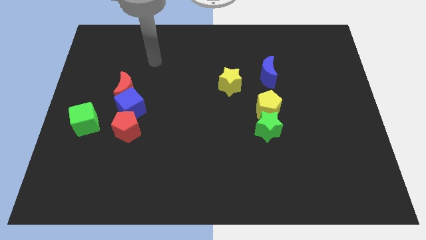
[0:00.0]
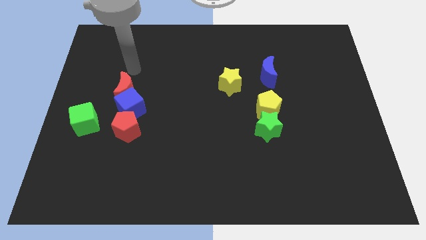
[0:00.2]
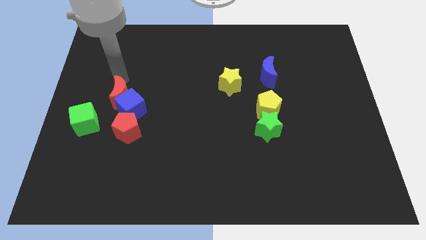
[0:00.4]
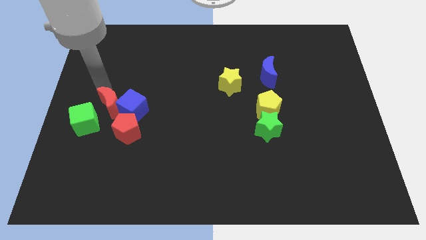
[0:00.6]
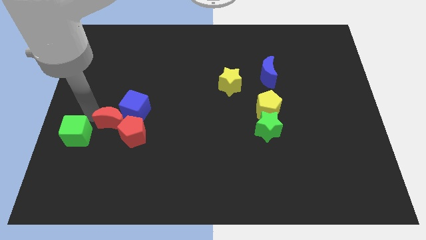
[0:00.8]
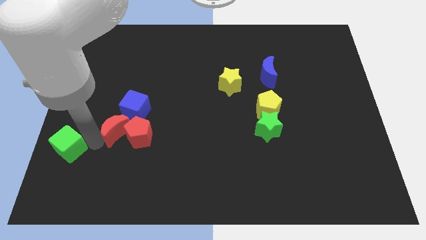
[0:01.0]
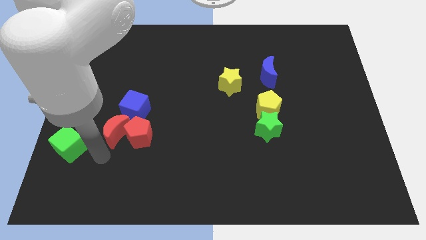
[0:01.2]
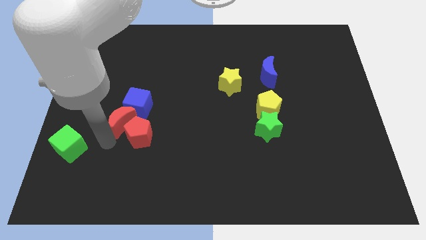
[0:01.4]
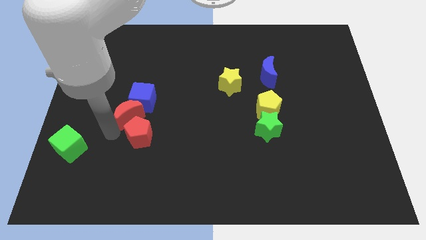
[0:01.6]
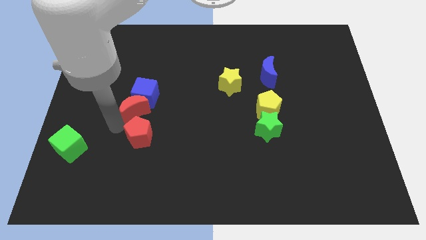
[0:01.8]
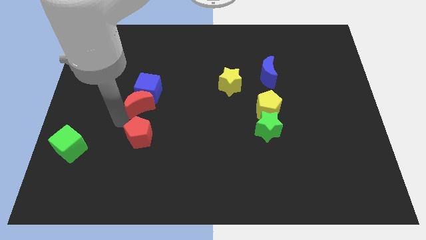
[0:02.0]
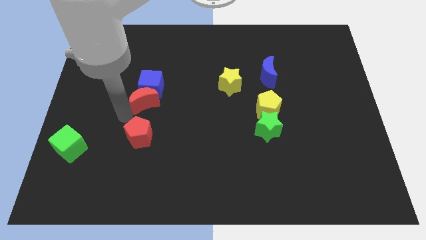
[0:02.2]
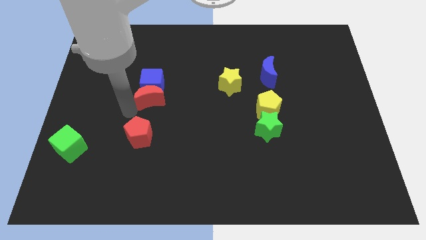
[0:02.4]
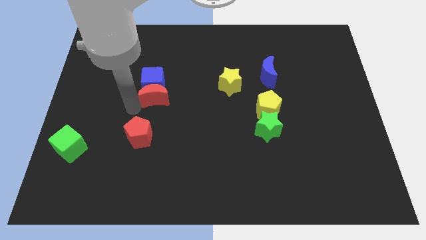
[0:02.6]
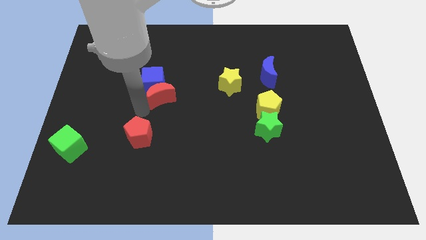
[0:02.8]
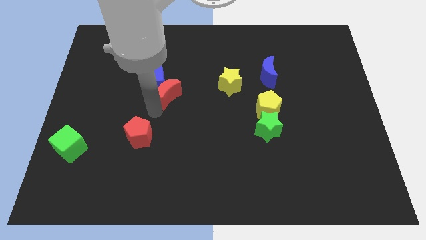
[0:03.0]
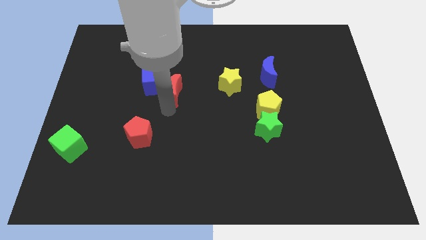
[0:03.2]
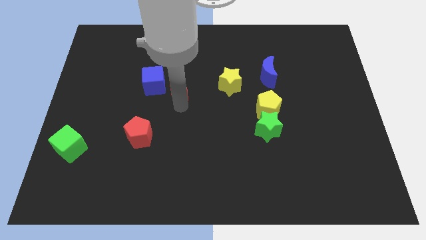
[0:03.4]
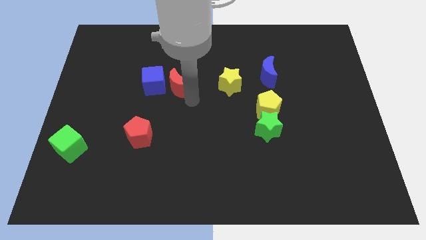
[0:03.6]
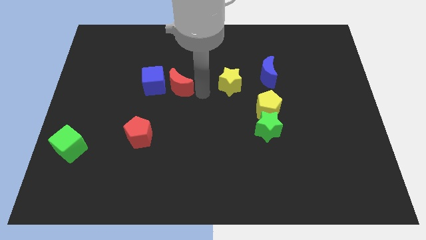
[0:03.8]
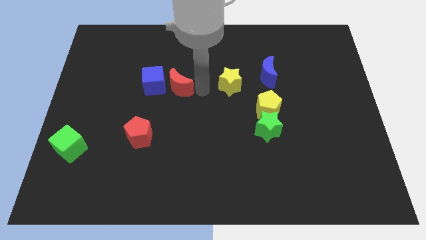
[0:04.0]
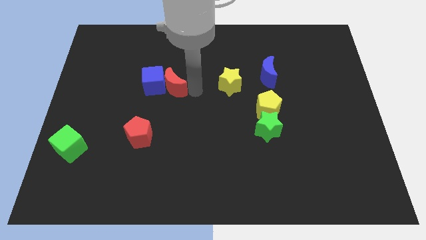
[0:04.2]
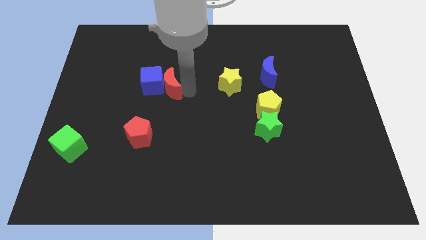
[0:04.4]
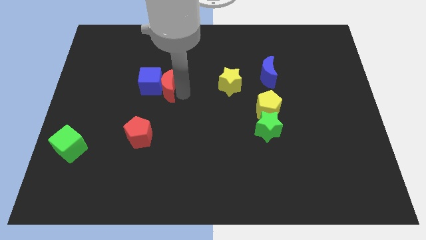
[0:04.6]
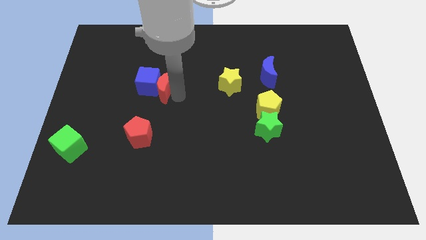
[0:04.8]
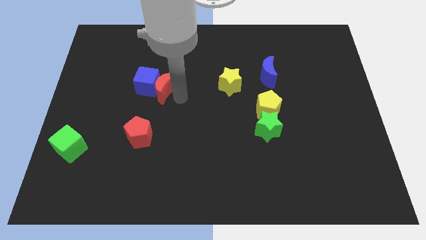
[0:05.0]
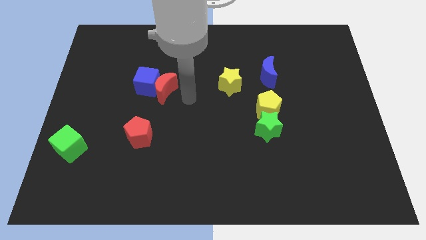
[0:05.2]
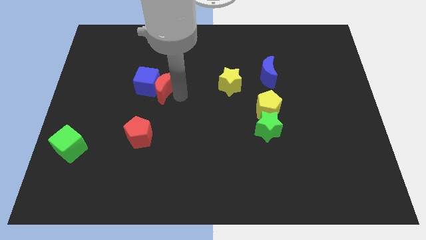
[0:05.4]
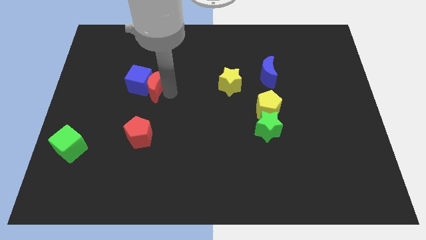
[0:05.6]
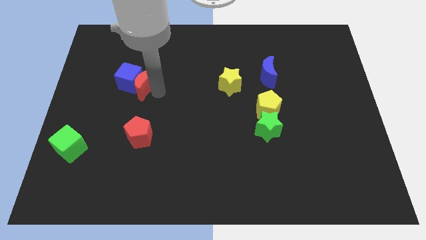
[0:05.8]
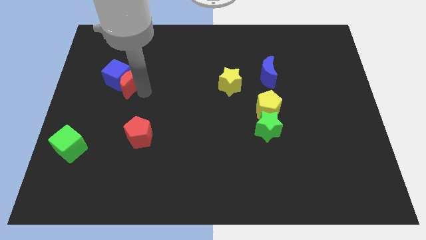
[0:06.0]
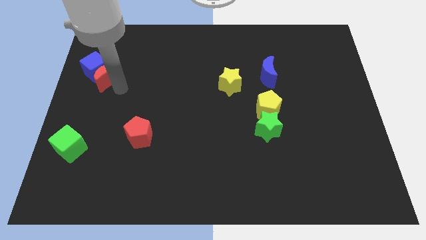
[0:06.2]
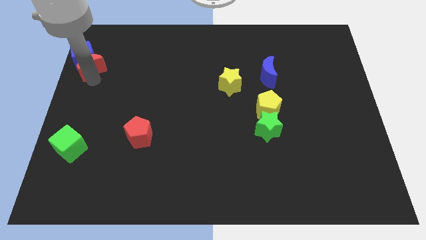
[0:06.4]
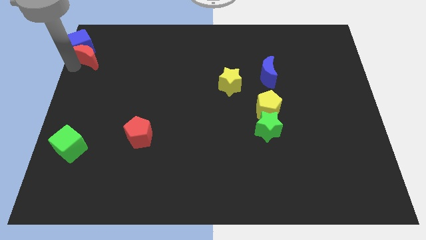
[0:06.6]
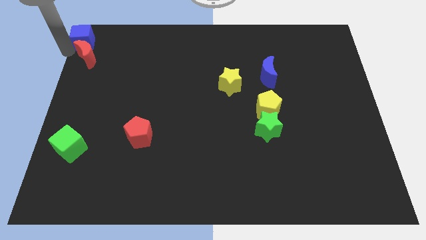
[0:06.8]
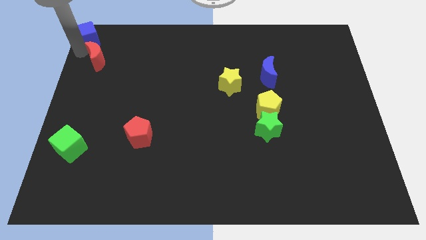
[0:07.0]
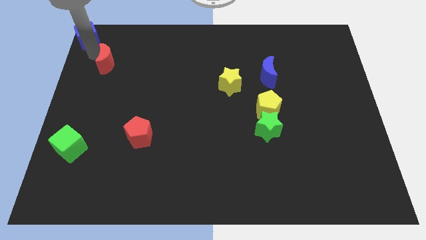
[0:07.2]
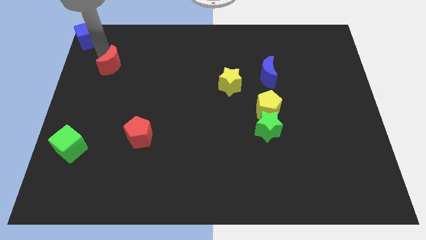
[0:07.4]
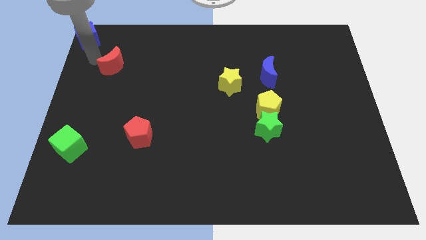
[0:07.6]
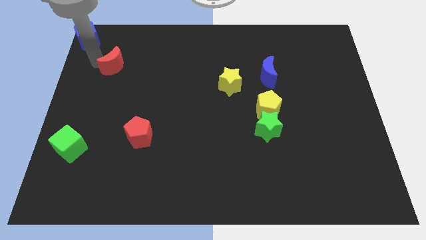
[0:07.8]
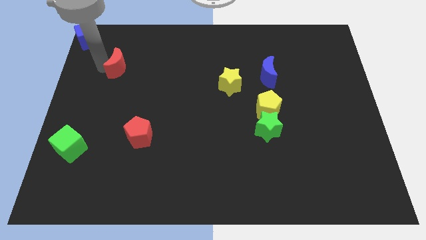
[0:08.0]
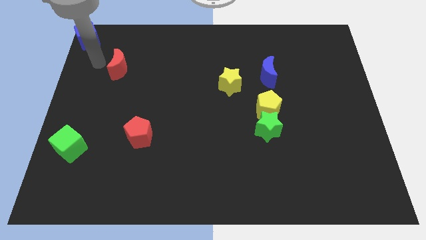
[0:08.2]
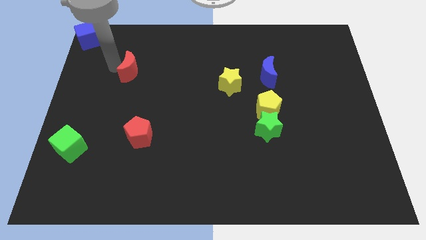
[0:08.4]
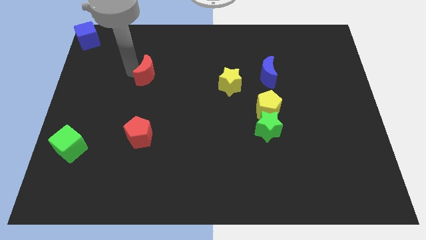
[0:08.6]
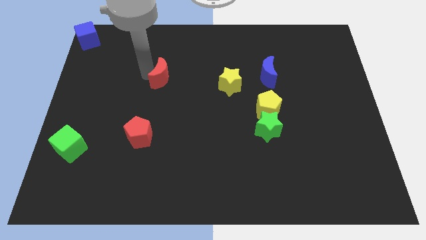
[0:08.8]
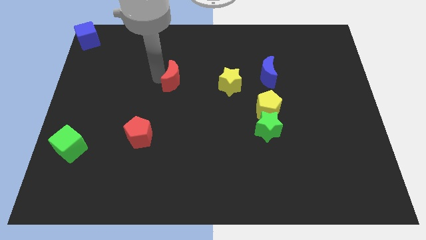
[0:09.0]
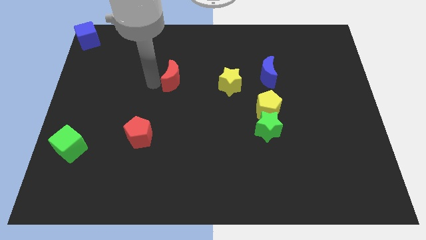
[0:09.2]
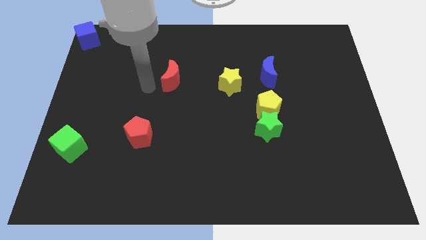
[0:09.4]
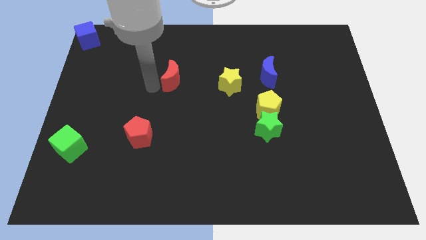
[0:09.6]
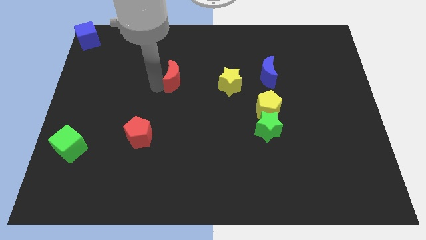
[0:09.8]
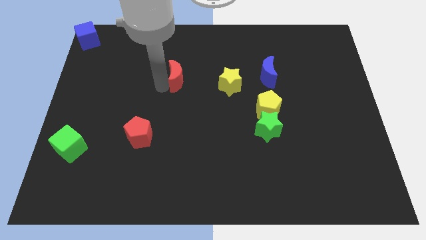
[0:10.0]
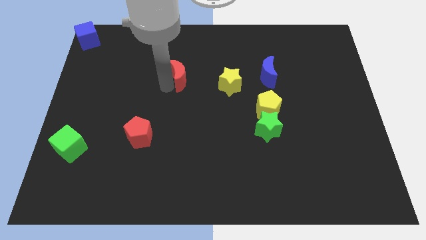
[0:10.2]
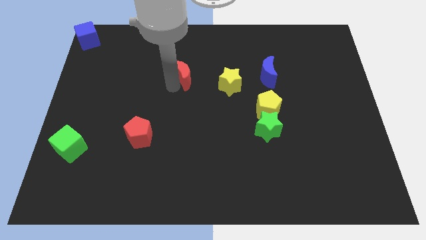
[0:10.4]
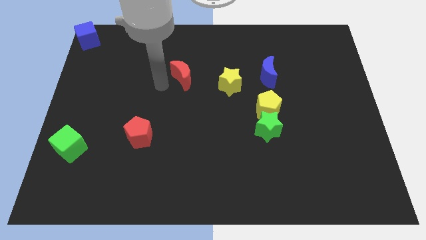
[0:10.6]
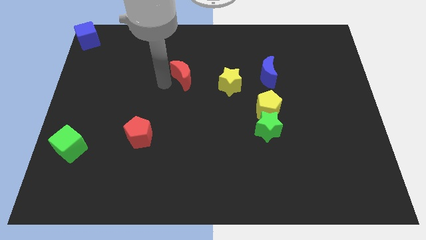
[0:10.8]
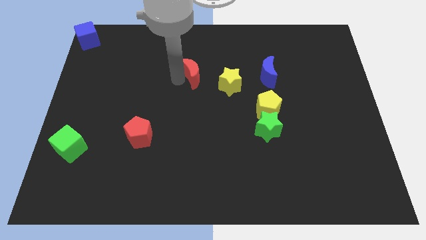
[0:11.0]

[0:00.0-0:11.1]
push the red moon diagonally up and to the left of the yellow star

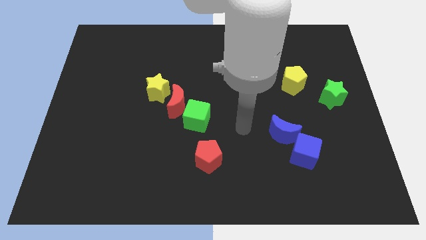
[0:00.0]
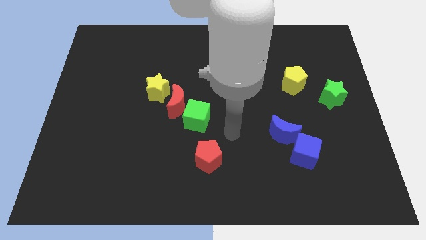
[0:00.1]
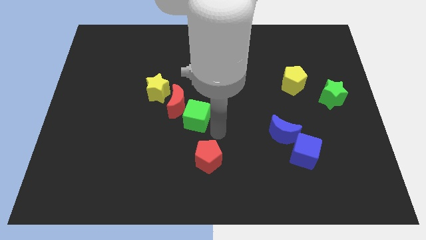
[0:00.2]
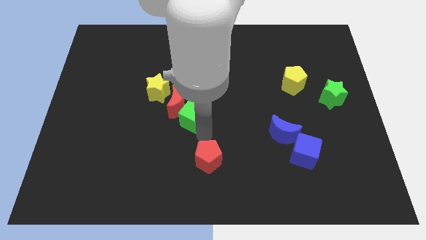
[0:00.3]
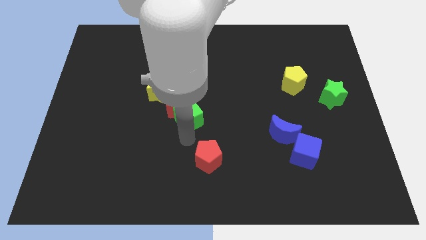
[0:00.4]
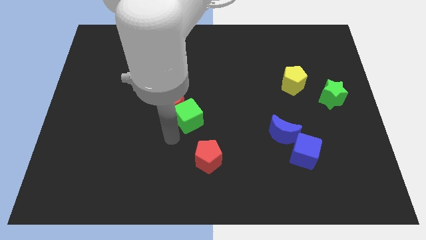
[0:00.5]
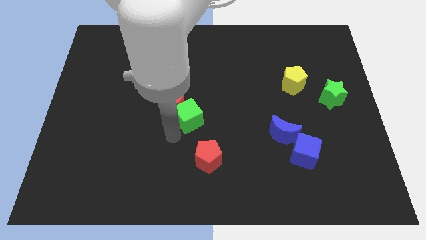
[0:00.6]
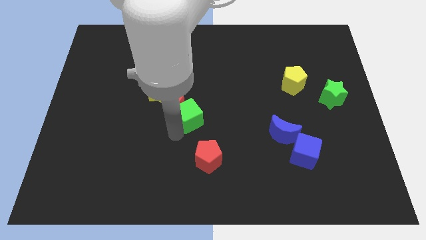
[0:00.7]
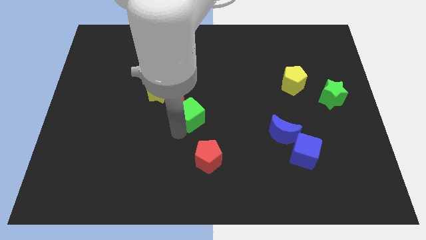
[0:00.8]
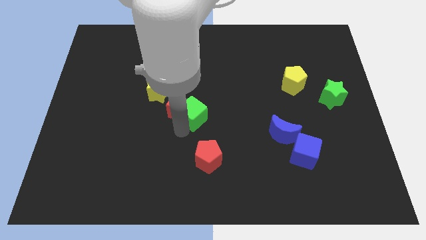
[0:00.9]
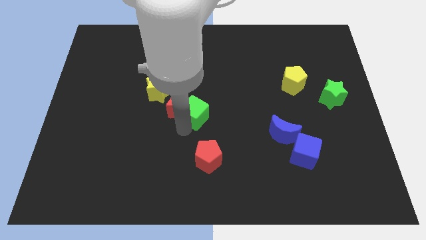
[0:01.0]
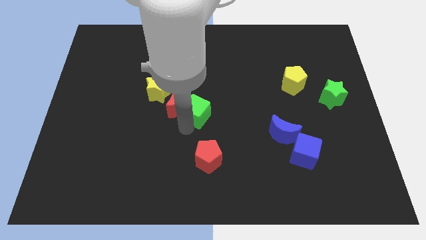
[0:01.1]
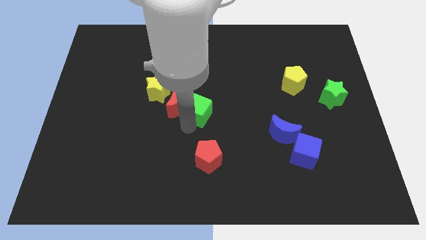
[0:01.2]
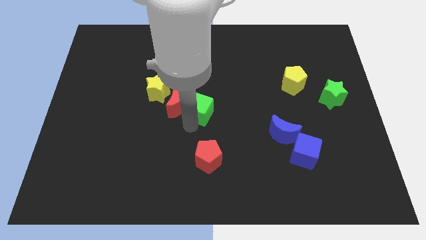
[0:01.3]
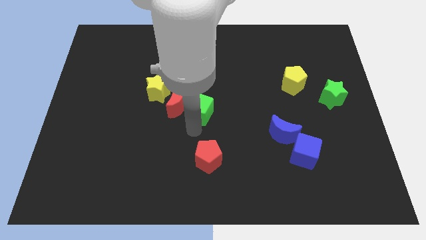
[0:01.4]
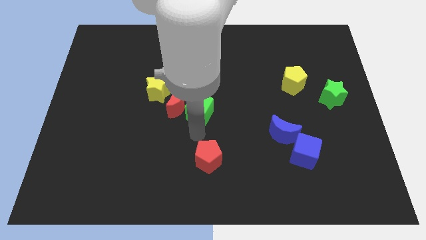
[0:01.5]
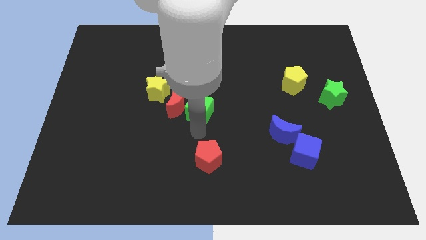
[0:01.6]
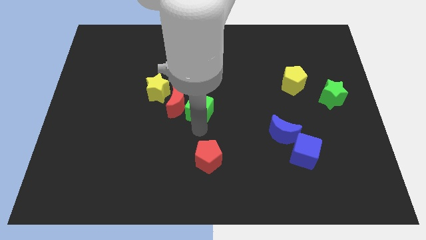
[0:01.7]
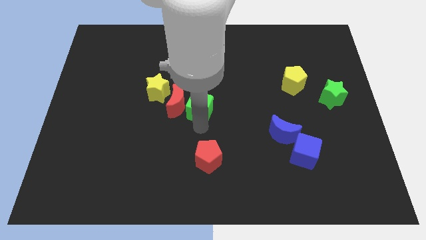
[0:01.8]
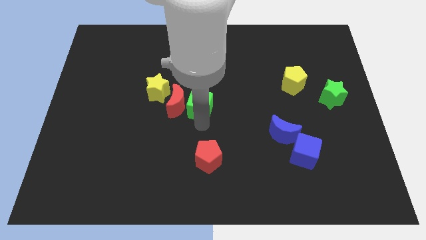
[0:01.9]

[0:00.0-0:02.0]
put the green cube to the right side of the yellow star
